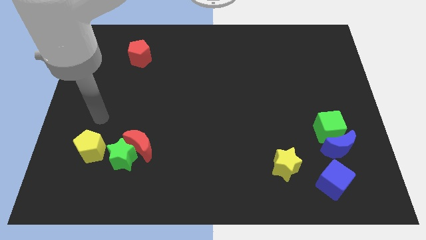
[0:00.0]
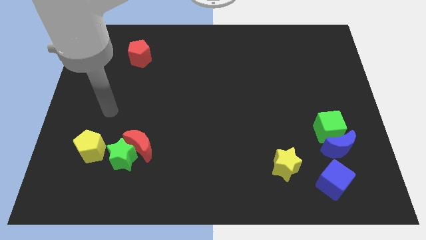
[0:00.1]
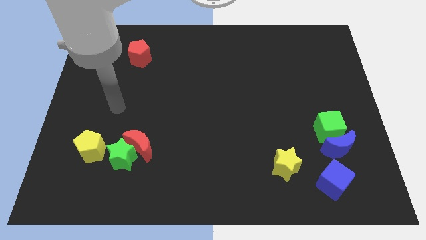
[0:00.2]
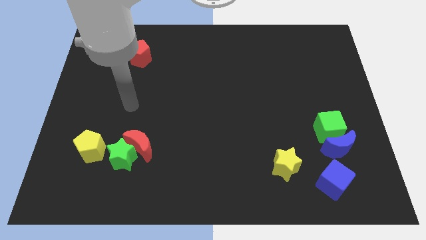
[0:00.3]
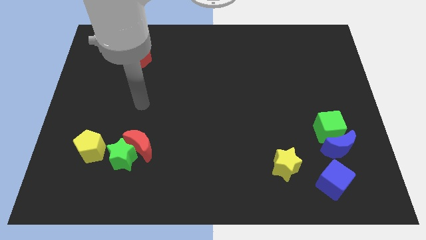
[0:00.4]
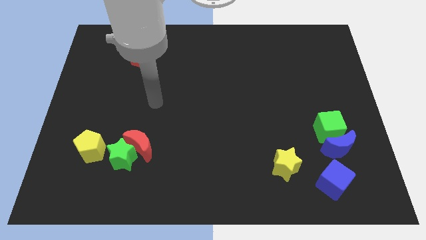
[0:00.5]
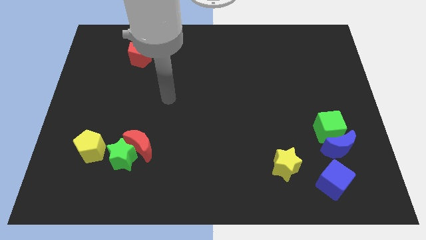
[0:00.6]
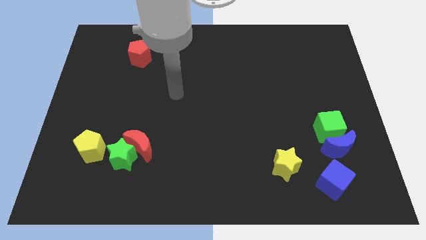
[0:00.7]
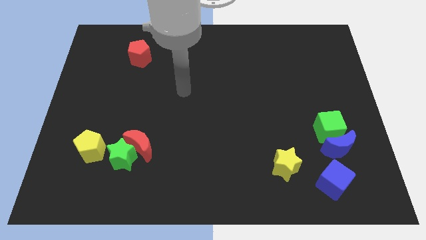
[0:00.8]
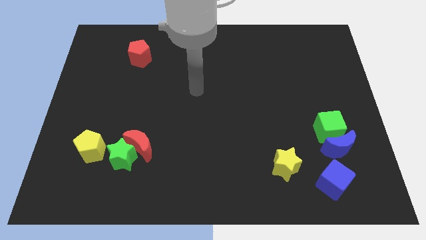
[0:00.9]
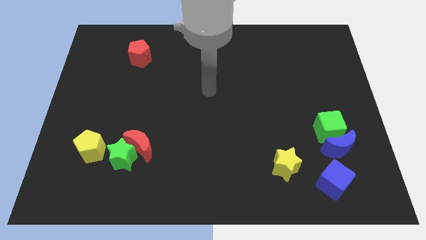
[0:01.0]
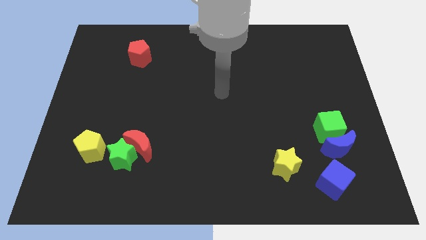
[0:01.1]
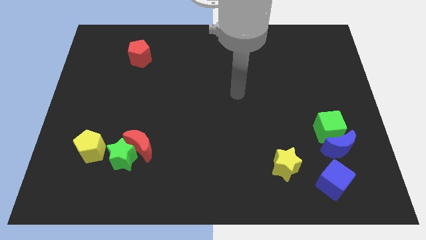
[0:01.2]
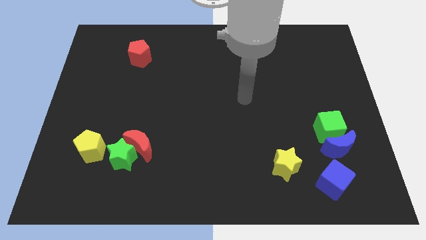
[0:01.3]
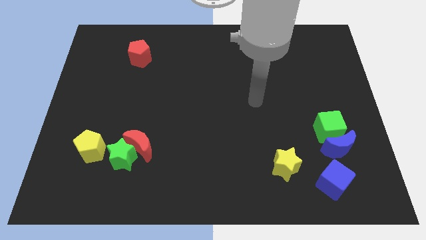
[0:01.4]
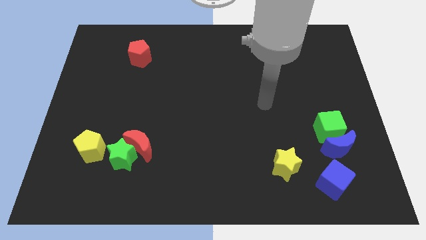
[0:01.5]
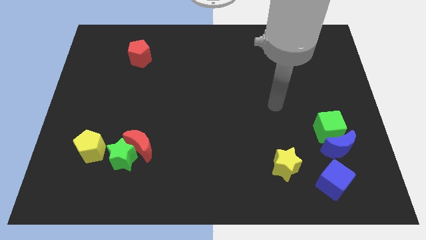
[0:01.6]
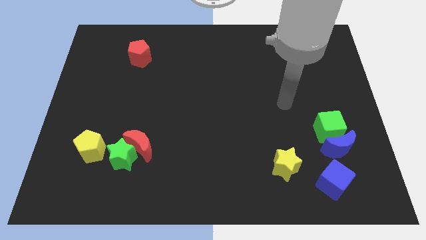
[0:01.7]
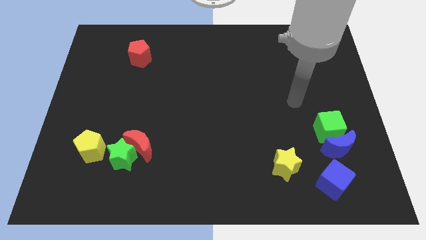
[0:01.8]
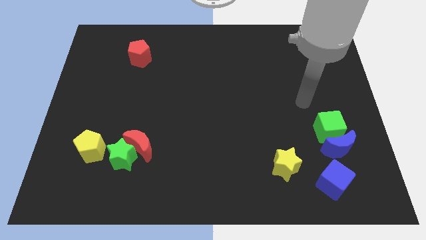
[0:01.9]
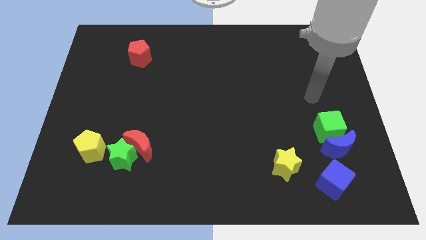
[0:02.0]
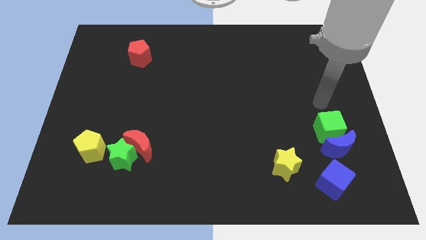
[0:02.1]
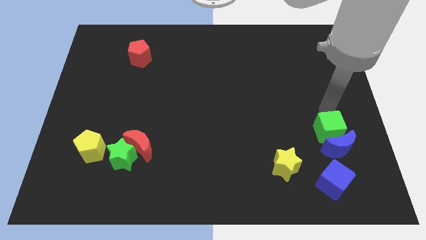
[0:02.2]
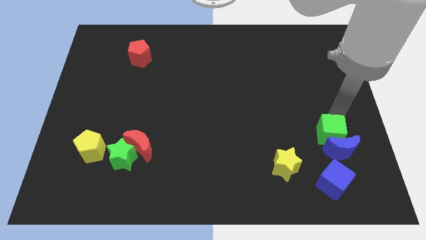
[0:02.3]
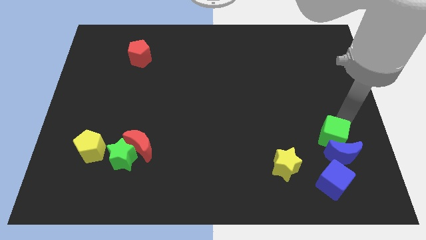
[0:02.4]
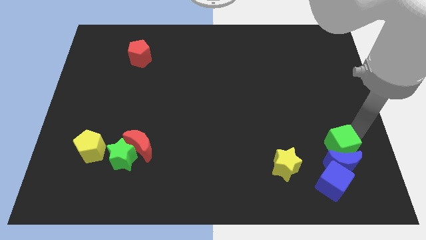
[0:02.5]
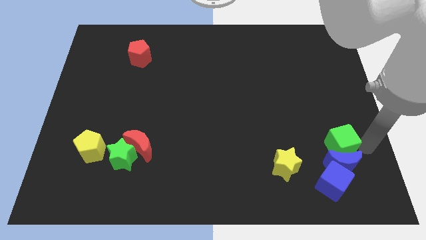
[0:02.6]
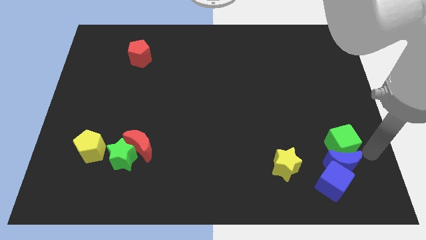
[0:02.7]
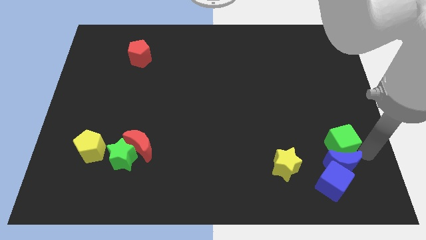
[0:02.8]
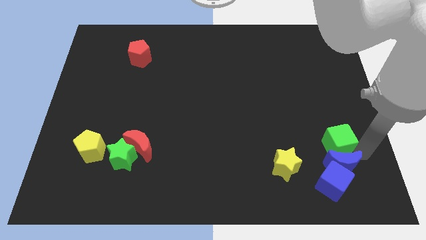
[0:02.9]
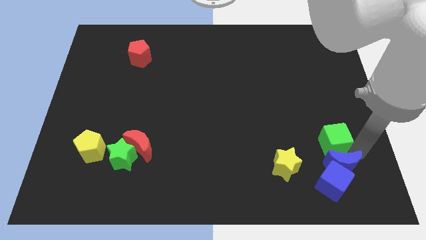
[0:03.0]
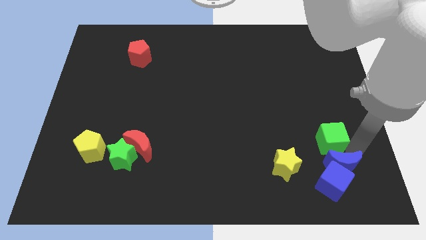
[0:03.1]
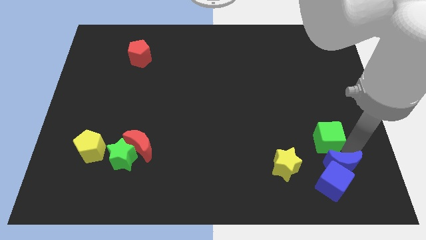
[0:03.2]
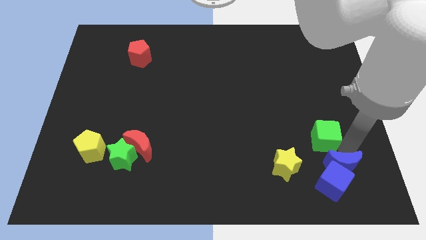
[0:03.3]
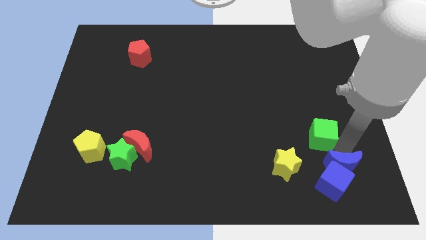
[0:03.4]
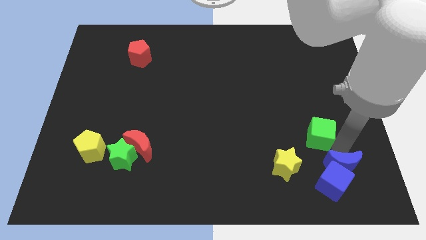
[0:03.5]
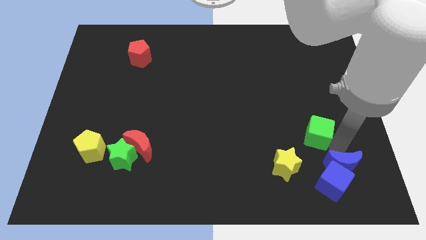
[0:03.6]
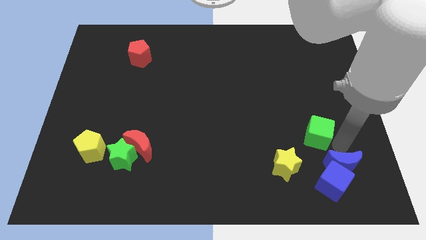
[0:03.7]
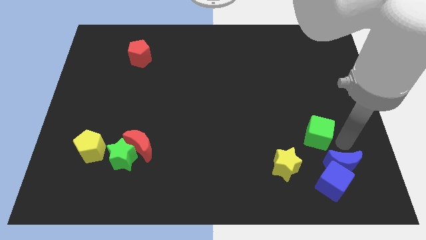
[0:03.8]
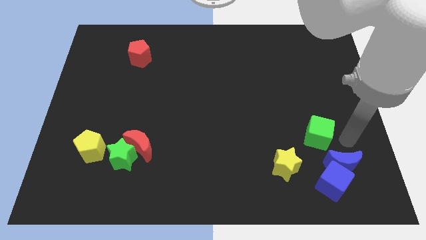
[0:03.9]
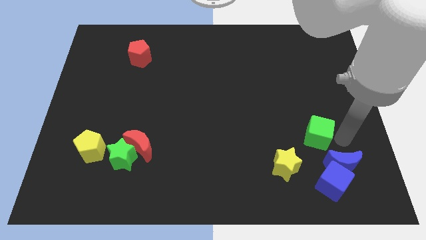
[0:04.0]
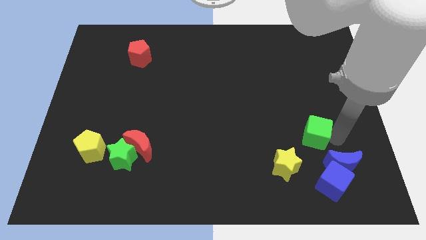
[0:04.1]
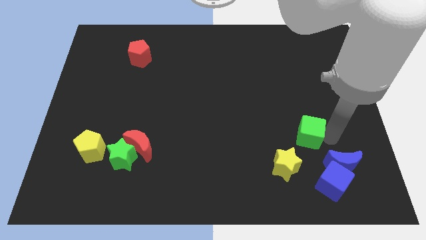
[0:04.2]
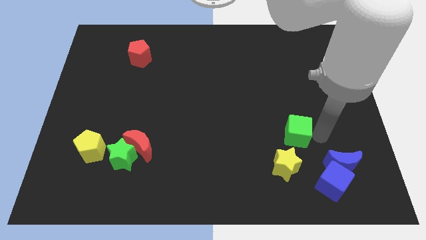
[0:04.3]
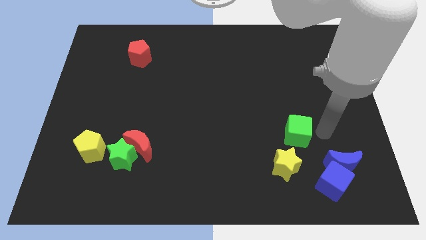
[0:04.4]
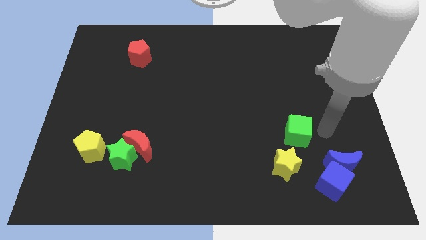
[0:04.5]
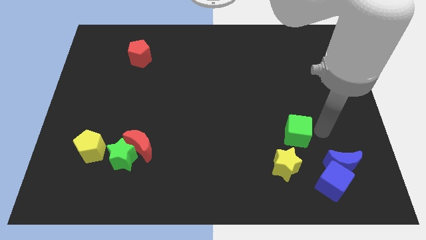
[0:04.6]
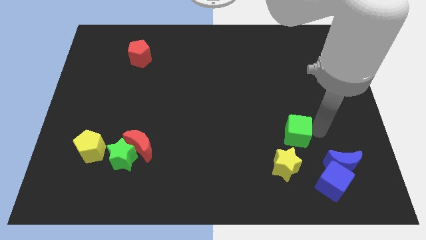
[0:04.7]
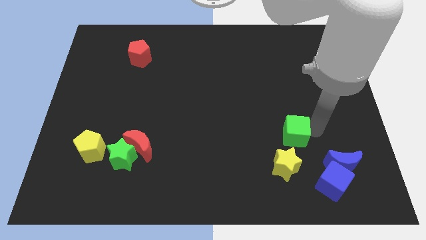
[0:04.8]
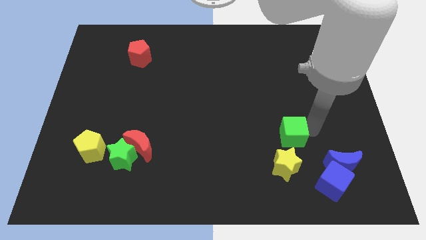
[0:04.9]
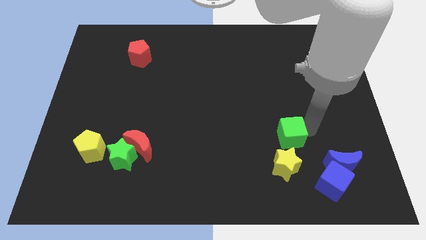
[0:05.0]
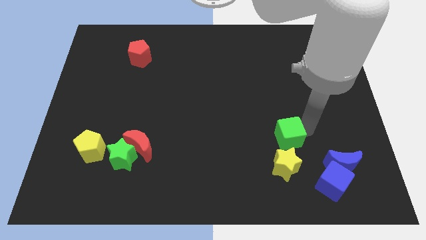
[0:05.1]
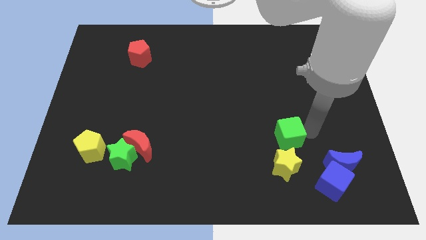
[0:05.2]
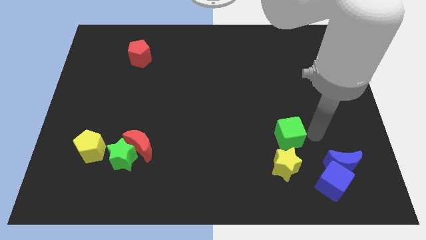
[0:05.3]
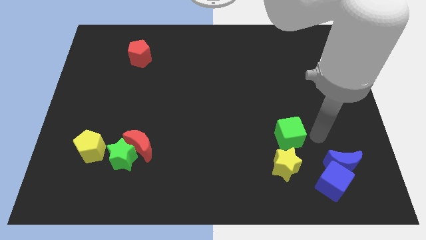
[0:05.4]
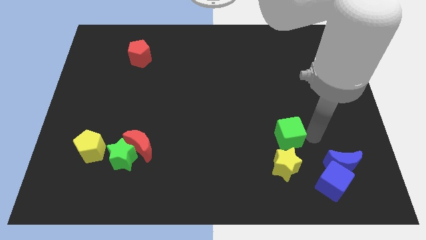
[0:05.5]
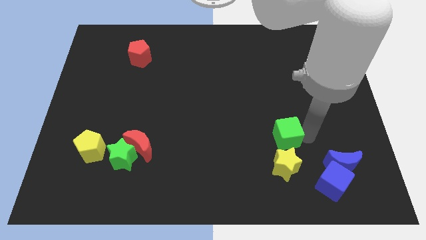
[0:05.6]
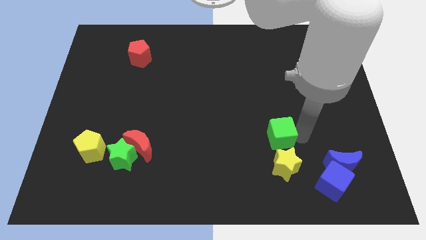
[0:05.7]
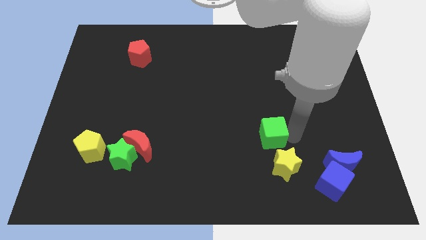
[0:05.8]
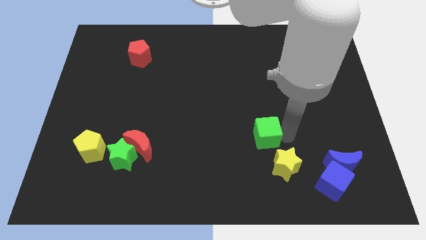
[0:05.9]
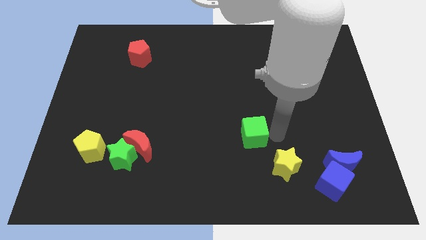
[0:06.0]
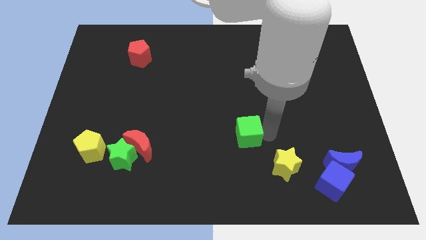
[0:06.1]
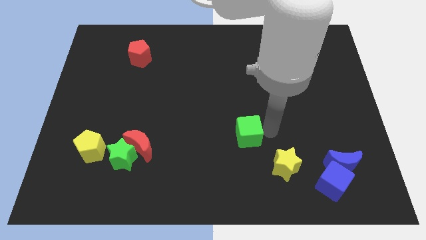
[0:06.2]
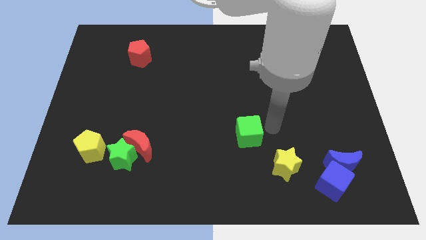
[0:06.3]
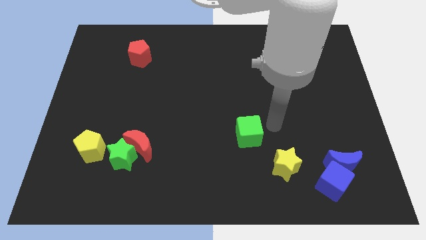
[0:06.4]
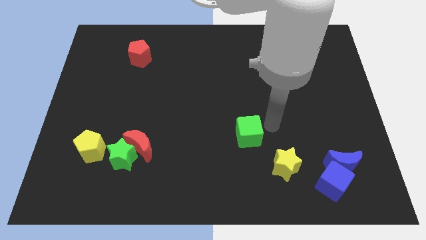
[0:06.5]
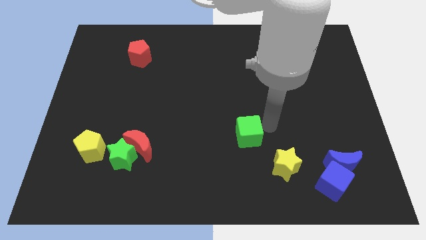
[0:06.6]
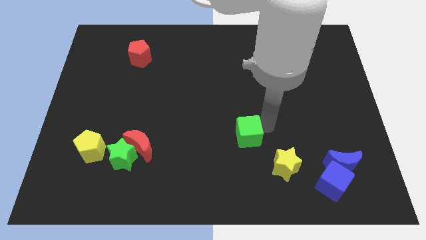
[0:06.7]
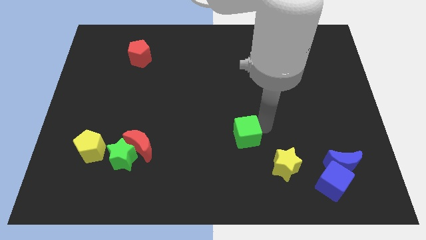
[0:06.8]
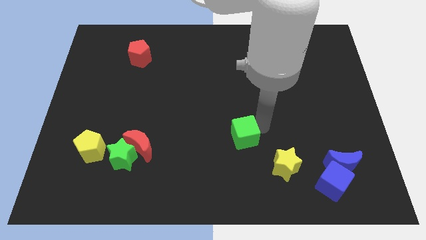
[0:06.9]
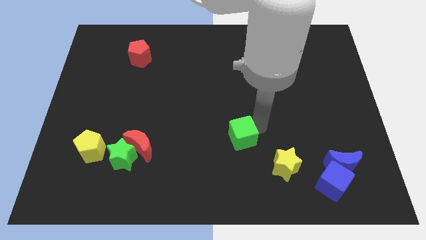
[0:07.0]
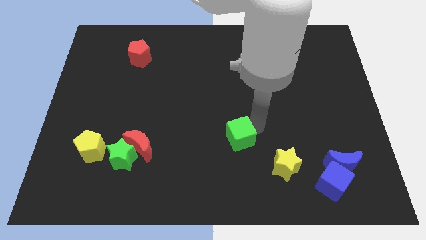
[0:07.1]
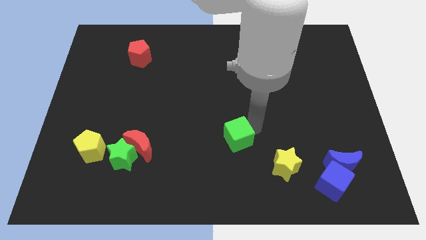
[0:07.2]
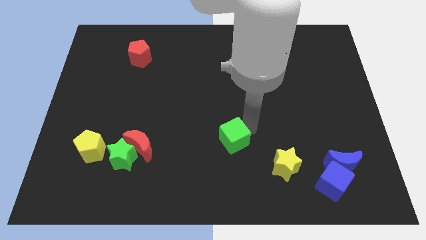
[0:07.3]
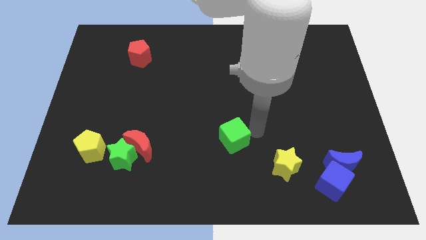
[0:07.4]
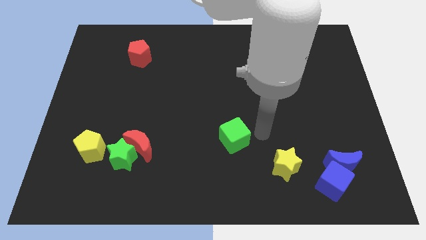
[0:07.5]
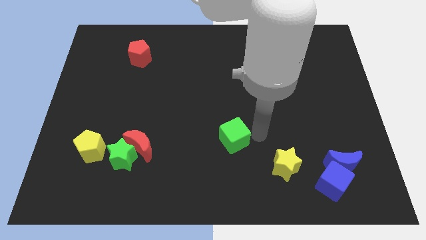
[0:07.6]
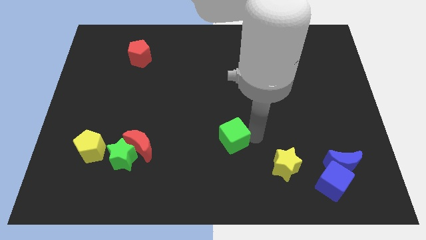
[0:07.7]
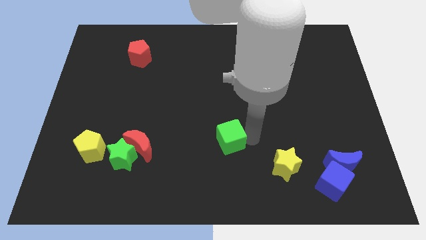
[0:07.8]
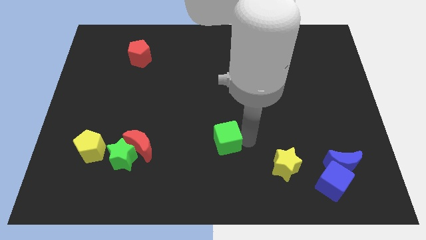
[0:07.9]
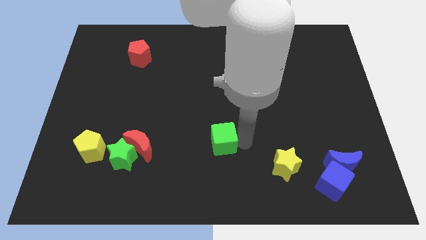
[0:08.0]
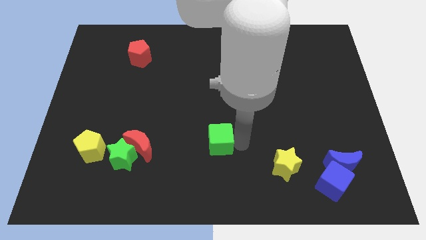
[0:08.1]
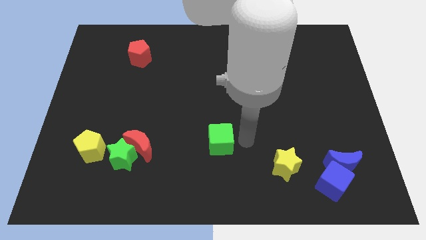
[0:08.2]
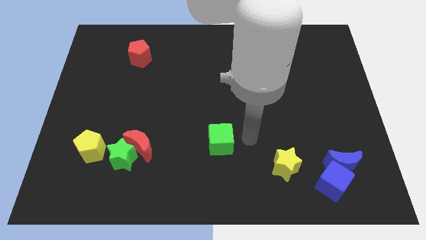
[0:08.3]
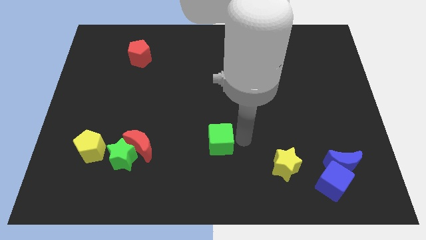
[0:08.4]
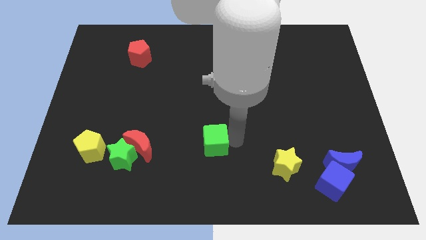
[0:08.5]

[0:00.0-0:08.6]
move the green cube just right of the red moon
